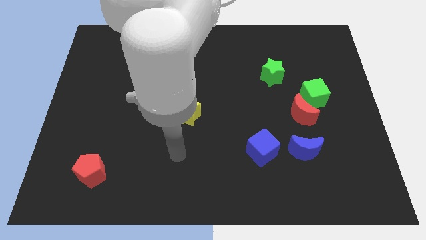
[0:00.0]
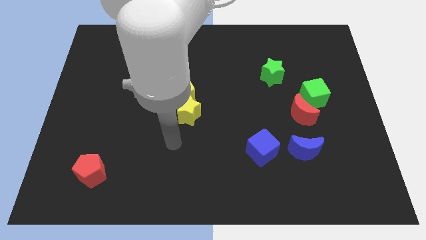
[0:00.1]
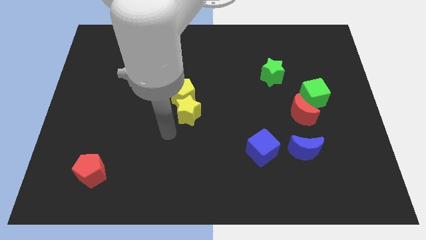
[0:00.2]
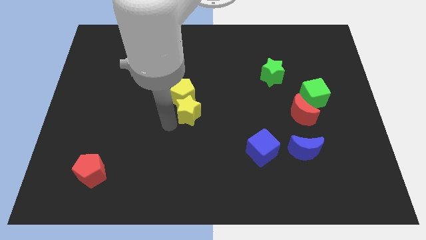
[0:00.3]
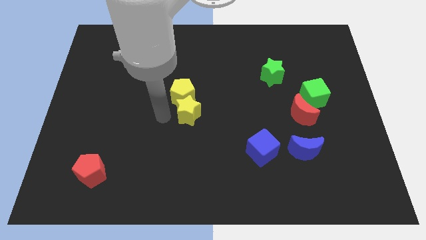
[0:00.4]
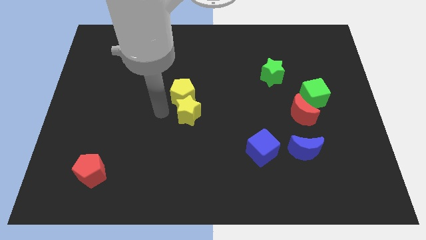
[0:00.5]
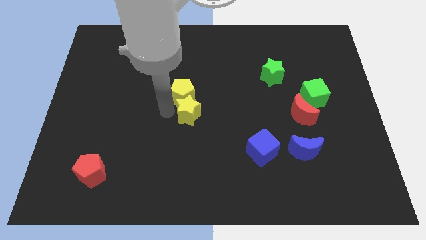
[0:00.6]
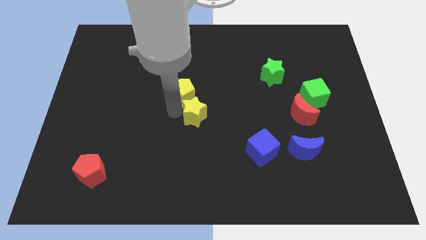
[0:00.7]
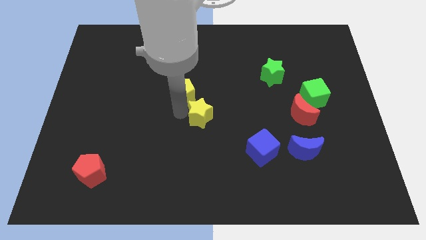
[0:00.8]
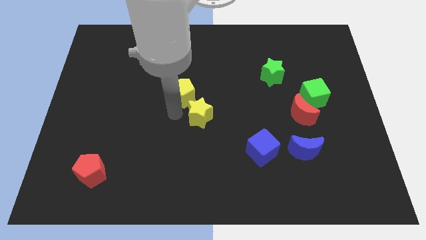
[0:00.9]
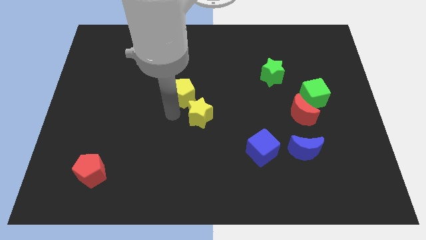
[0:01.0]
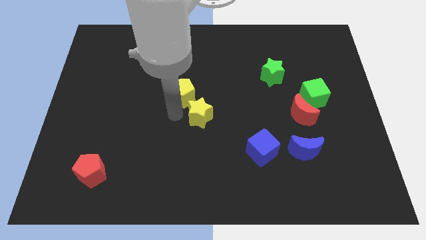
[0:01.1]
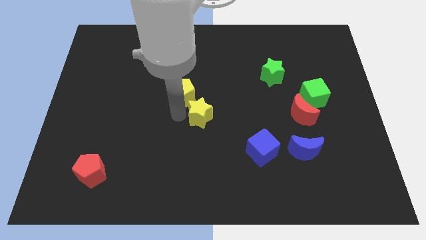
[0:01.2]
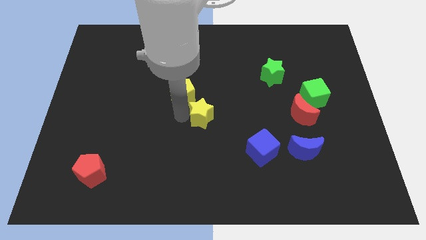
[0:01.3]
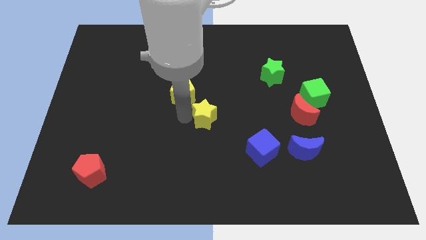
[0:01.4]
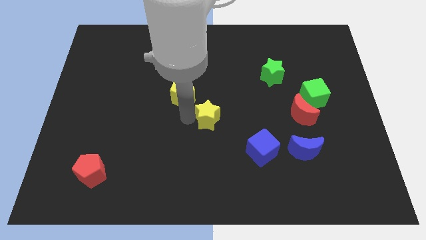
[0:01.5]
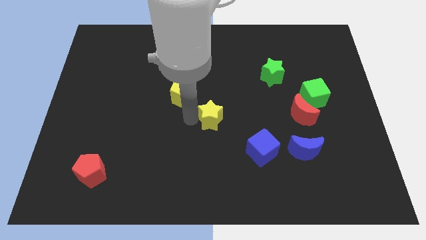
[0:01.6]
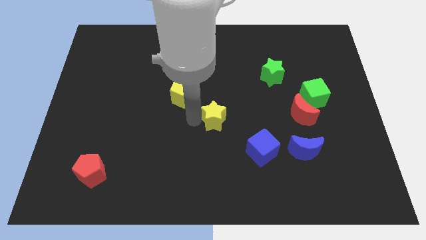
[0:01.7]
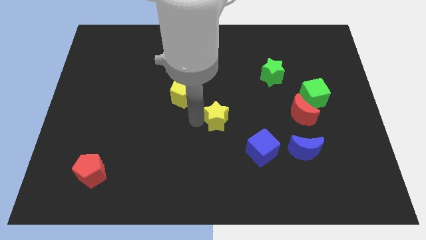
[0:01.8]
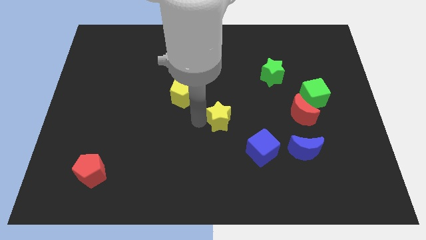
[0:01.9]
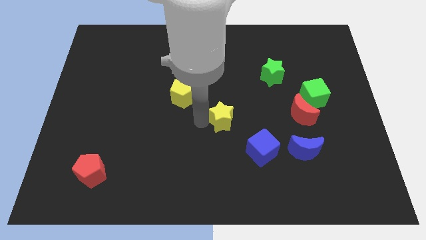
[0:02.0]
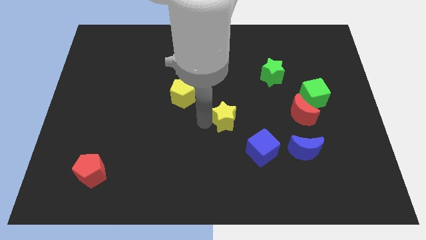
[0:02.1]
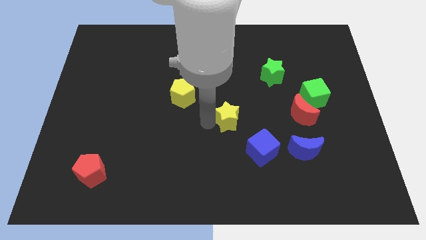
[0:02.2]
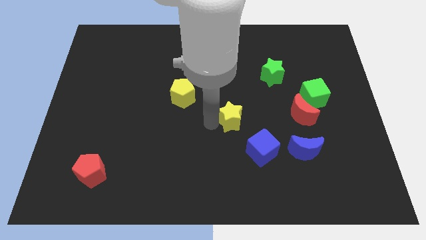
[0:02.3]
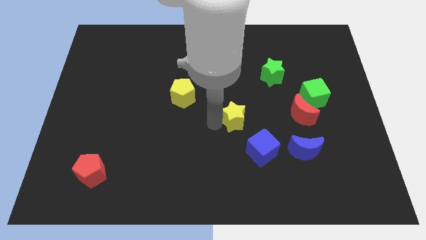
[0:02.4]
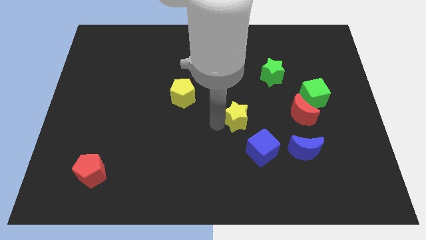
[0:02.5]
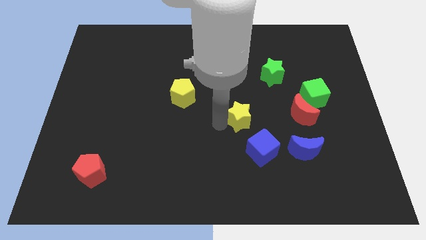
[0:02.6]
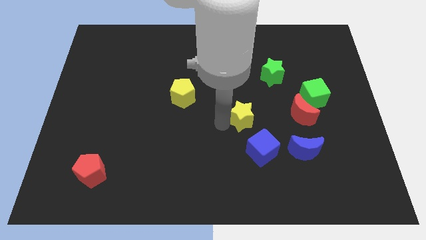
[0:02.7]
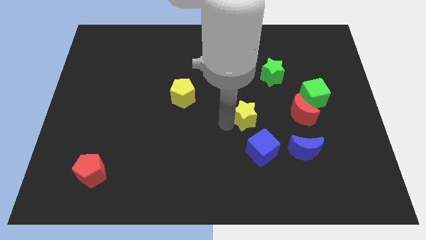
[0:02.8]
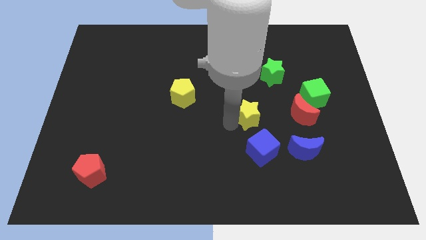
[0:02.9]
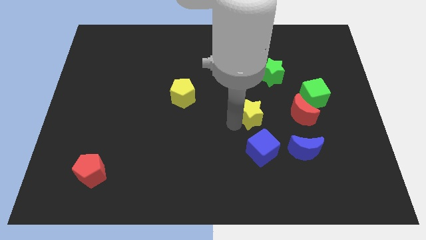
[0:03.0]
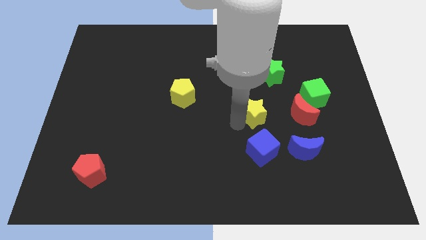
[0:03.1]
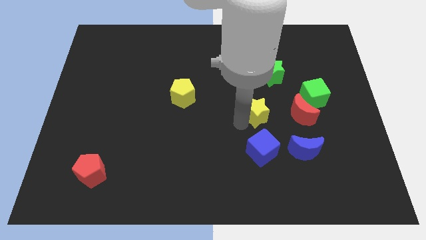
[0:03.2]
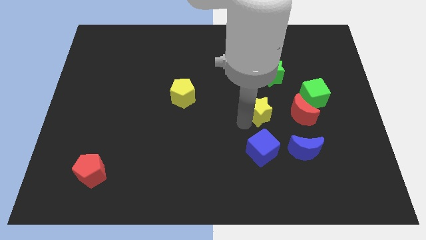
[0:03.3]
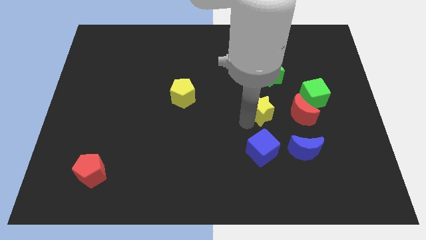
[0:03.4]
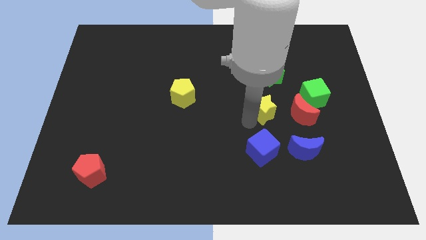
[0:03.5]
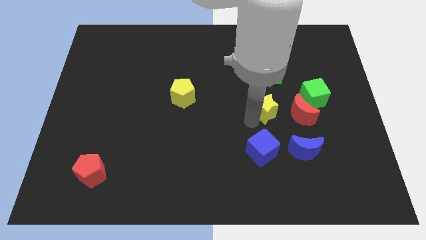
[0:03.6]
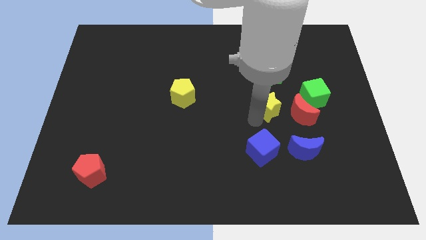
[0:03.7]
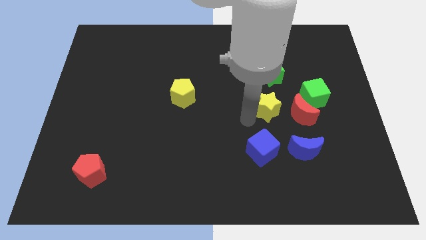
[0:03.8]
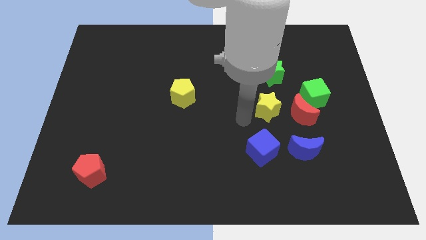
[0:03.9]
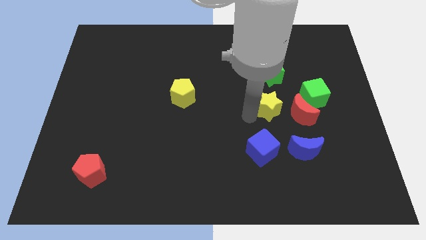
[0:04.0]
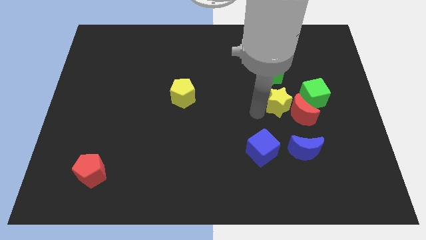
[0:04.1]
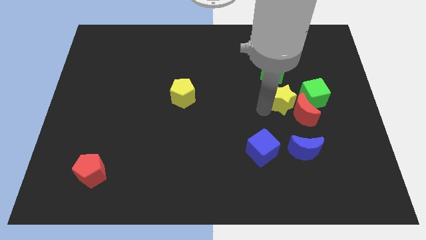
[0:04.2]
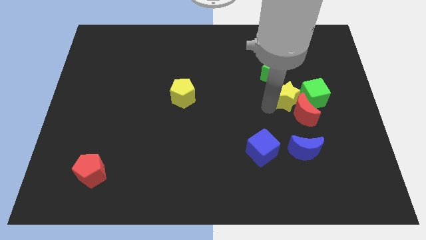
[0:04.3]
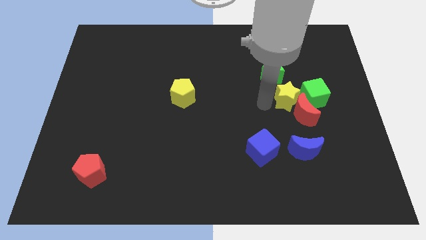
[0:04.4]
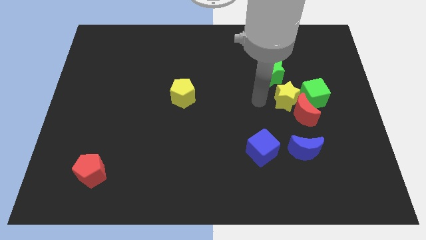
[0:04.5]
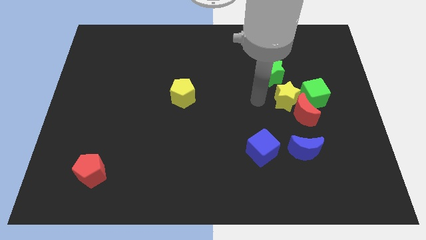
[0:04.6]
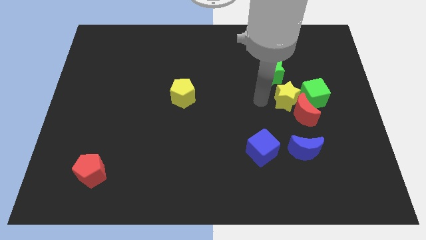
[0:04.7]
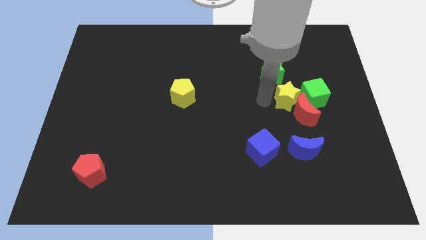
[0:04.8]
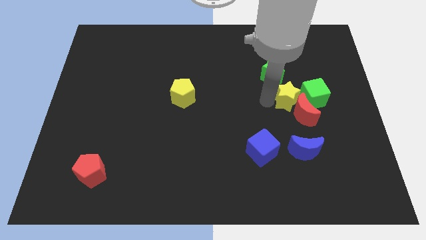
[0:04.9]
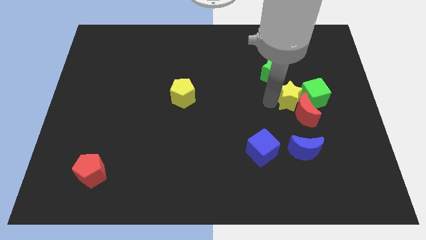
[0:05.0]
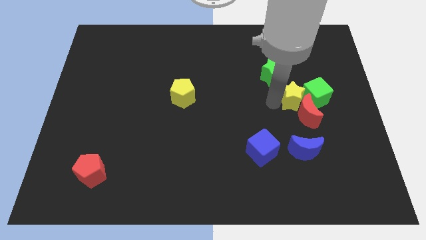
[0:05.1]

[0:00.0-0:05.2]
move the yellow star to the green cube

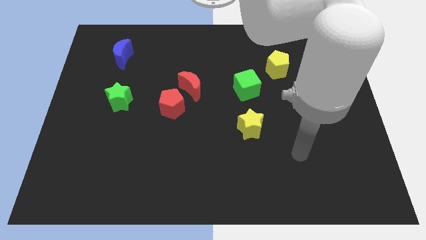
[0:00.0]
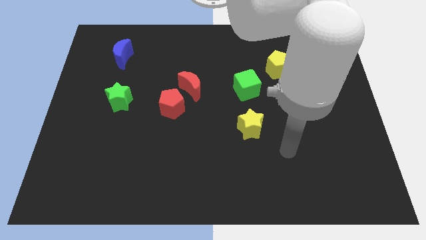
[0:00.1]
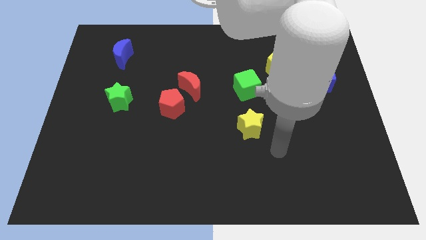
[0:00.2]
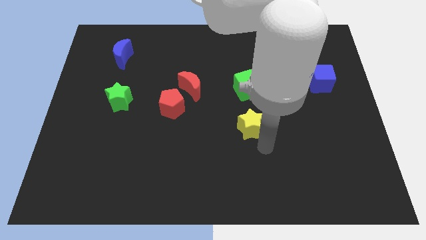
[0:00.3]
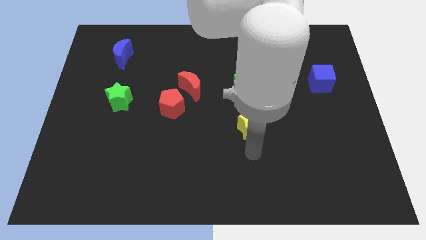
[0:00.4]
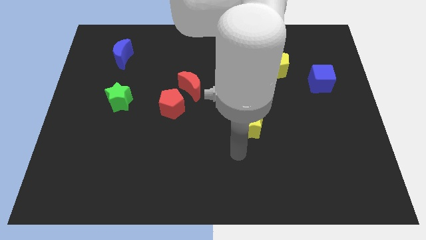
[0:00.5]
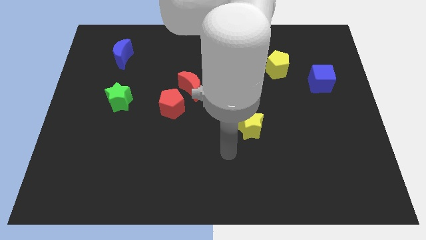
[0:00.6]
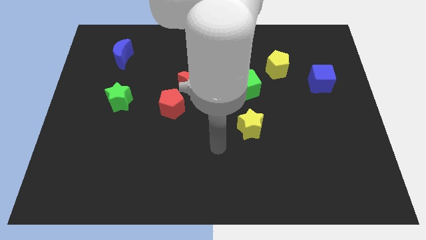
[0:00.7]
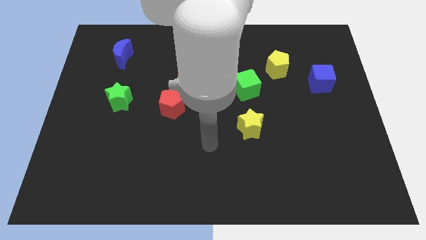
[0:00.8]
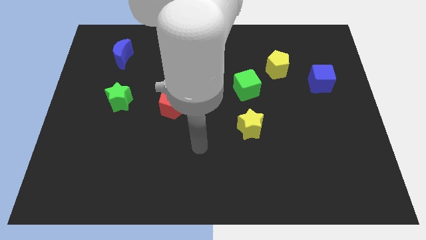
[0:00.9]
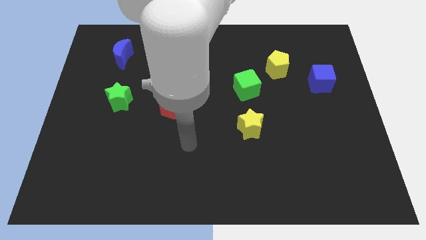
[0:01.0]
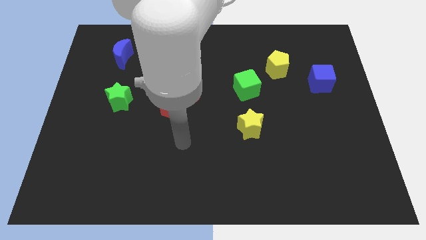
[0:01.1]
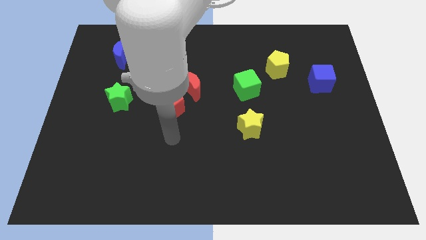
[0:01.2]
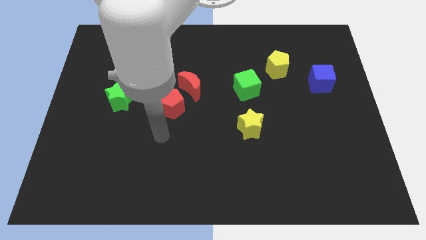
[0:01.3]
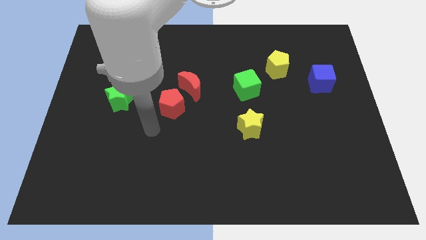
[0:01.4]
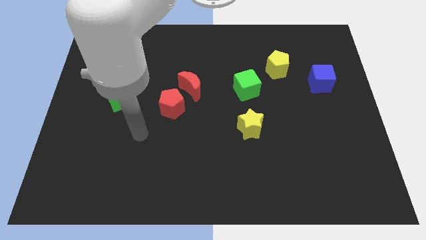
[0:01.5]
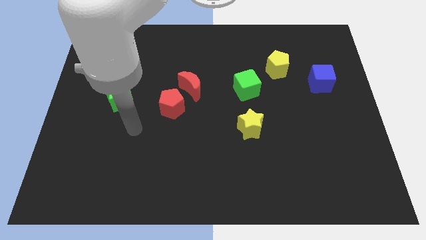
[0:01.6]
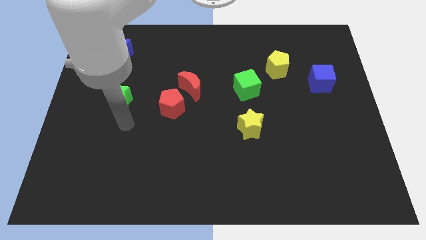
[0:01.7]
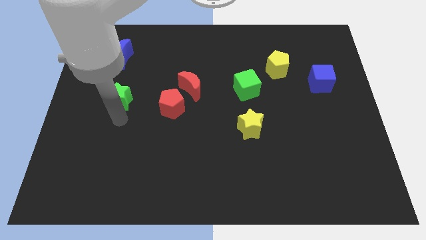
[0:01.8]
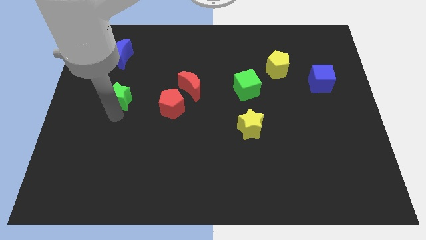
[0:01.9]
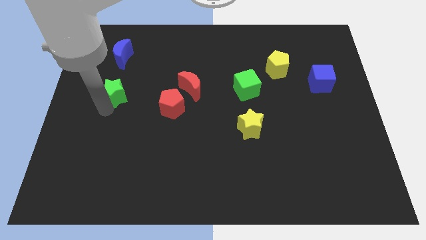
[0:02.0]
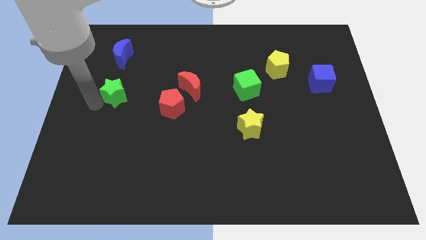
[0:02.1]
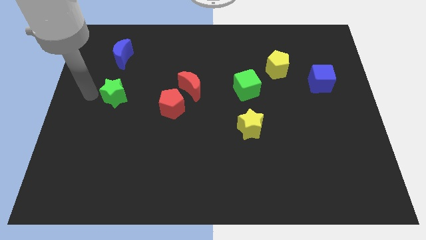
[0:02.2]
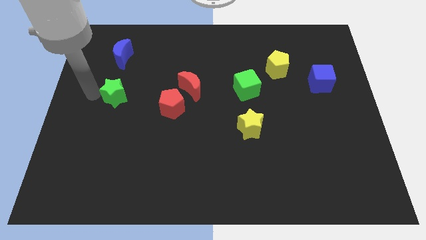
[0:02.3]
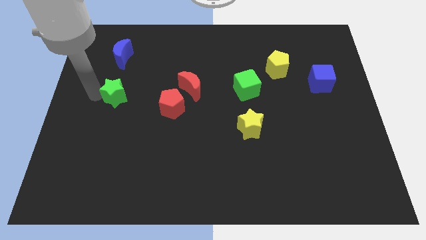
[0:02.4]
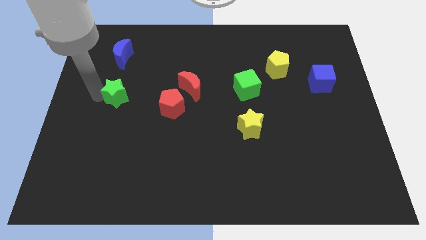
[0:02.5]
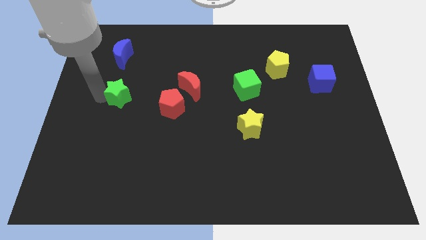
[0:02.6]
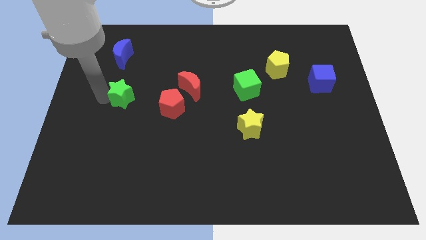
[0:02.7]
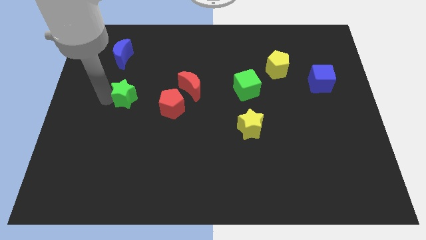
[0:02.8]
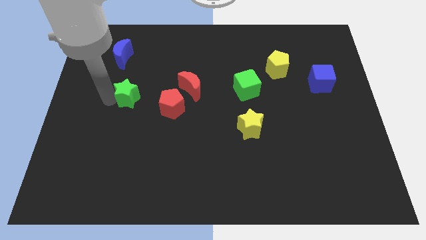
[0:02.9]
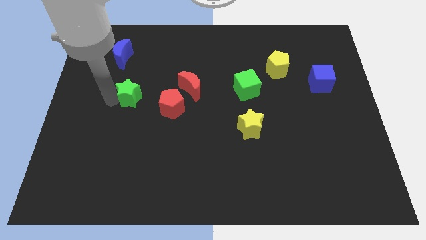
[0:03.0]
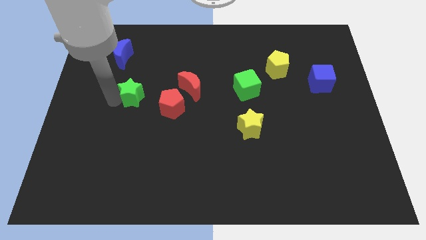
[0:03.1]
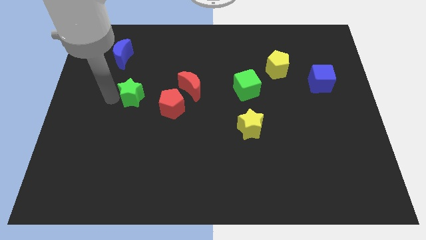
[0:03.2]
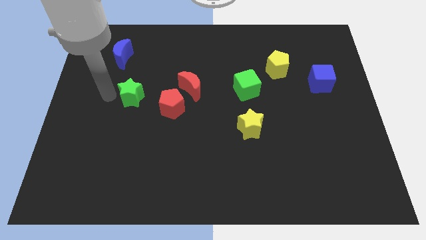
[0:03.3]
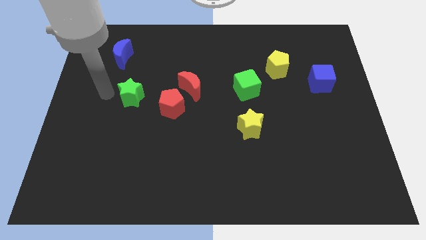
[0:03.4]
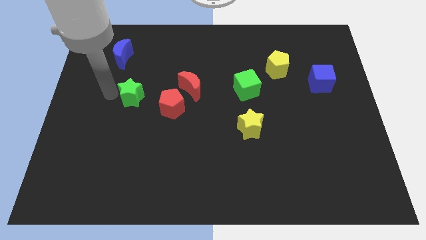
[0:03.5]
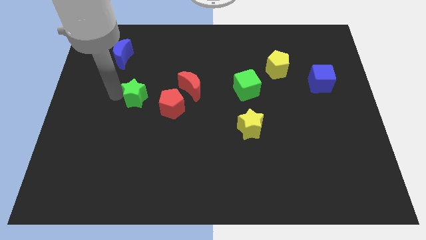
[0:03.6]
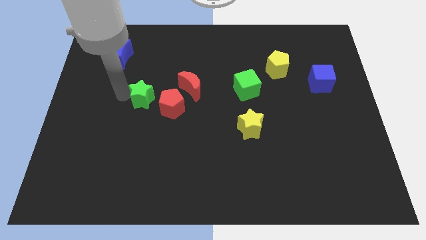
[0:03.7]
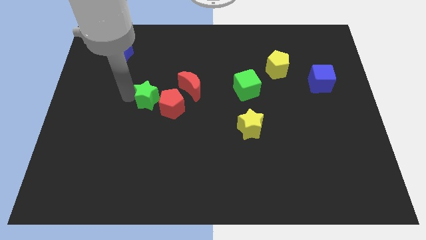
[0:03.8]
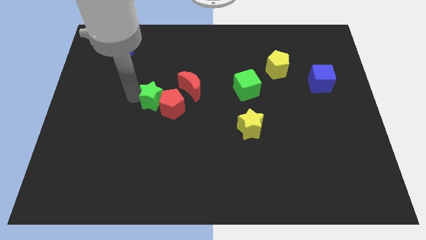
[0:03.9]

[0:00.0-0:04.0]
put the green star towards the red pentagon
